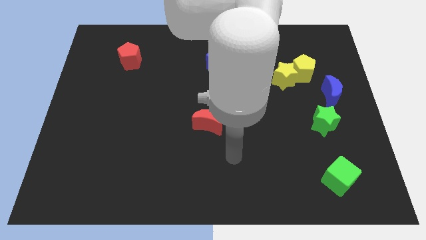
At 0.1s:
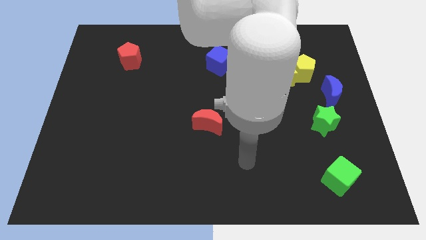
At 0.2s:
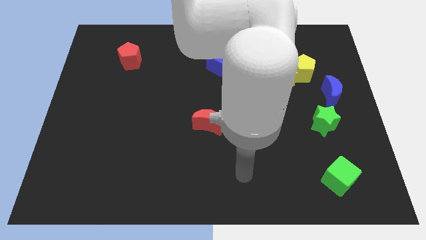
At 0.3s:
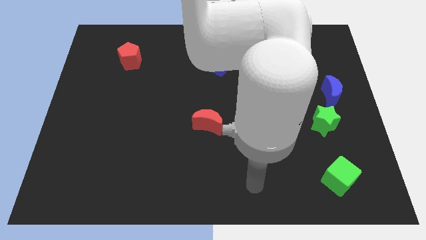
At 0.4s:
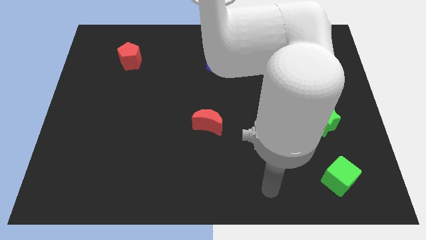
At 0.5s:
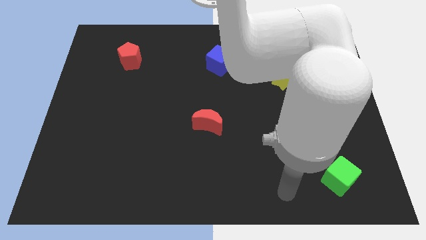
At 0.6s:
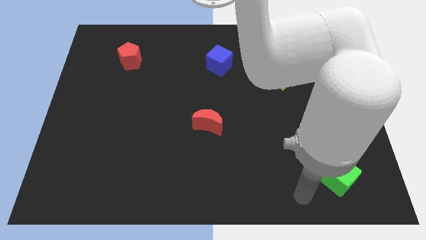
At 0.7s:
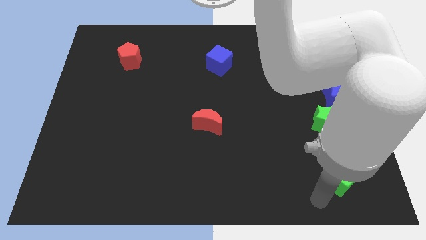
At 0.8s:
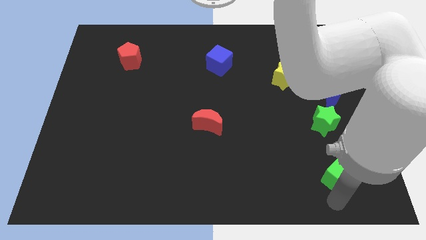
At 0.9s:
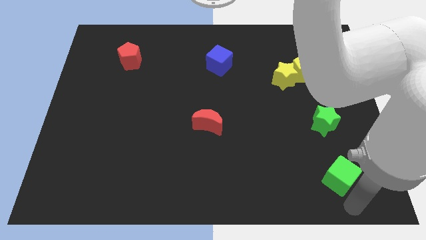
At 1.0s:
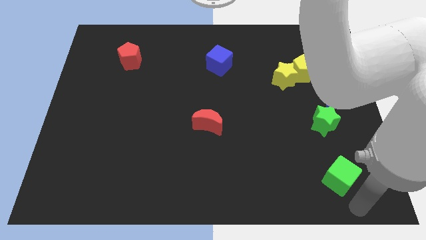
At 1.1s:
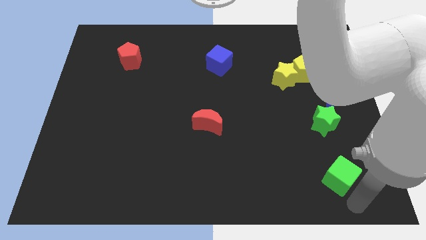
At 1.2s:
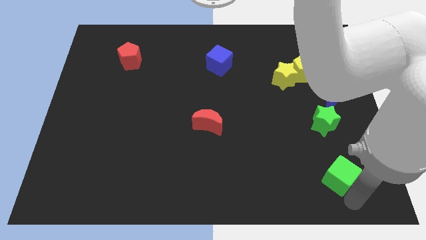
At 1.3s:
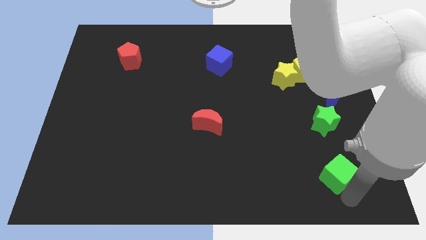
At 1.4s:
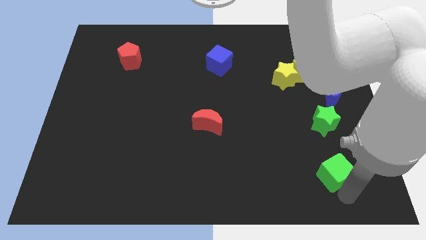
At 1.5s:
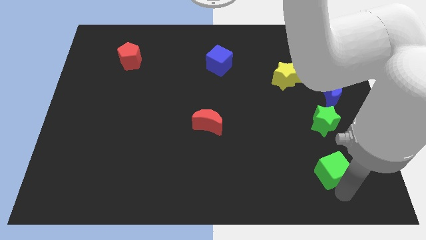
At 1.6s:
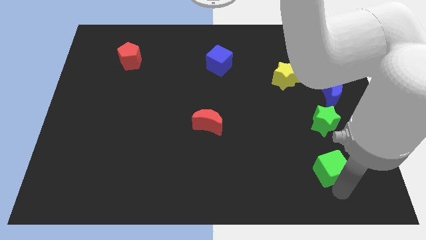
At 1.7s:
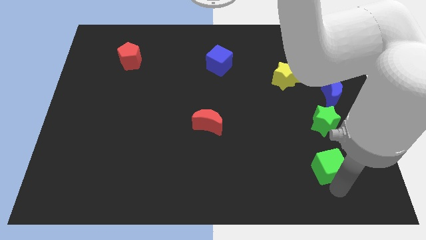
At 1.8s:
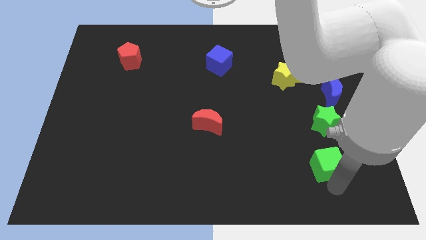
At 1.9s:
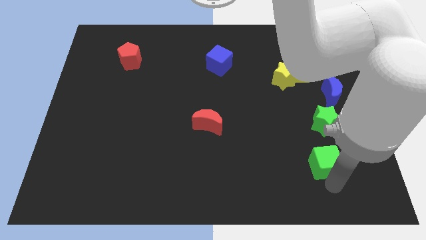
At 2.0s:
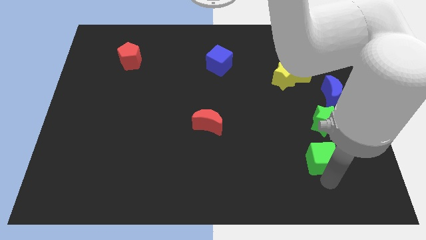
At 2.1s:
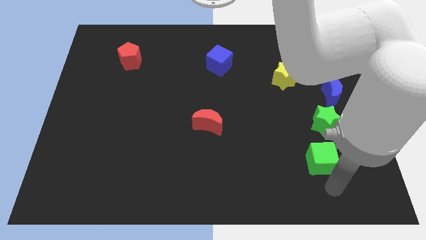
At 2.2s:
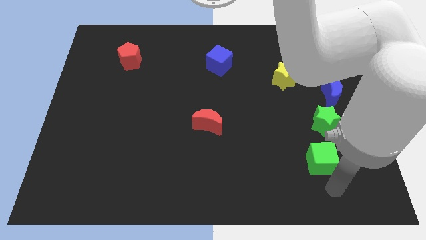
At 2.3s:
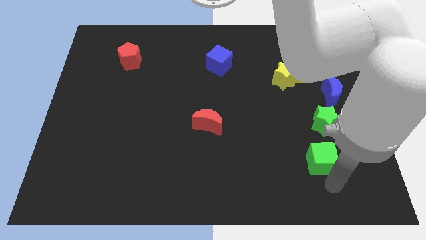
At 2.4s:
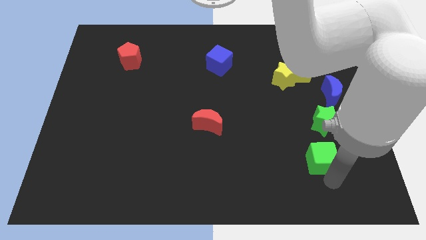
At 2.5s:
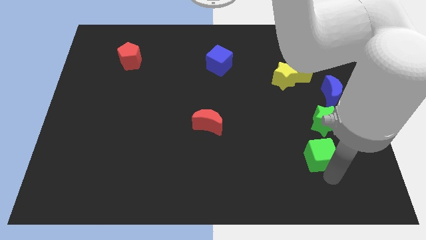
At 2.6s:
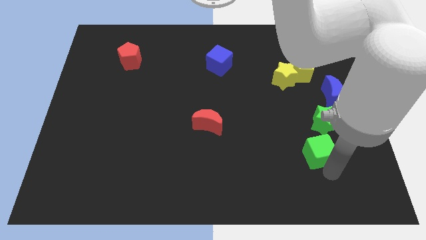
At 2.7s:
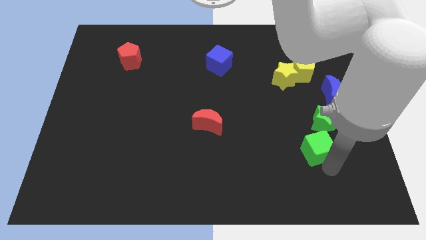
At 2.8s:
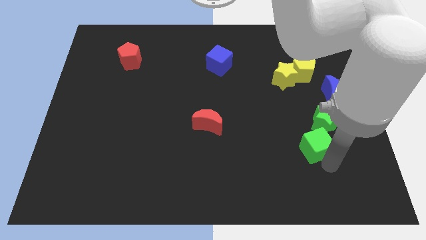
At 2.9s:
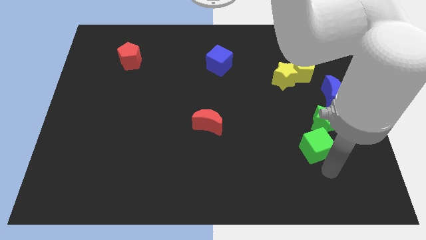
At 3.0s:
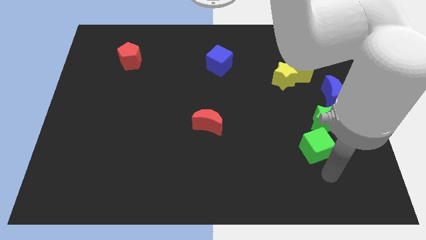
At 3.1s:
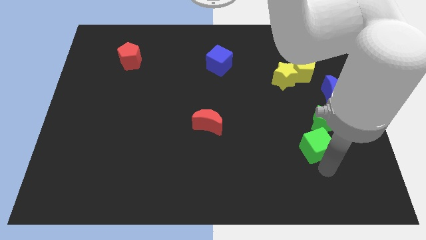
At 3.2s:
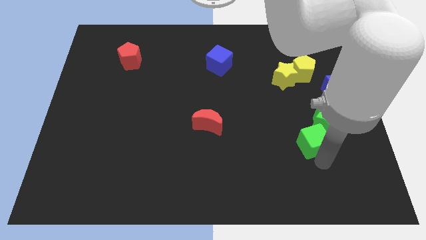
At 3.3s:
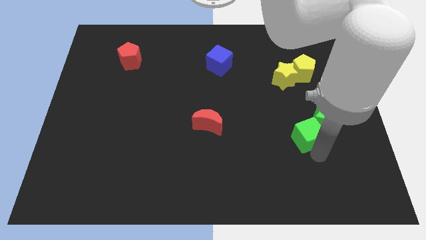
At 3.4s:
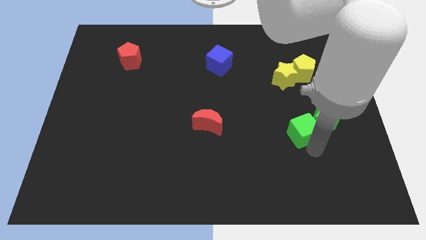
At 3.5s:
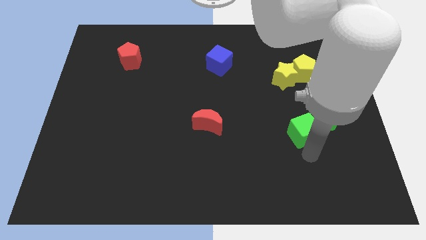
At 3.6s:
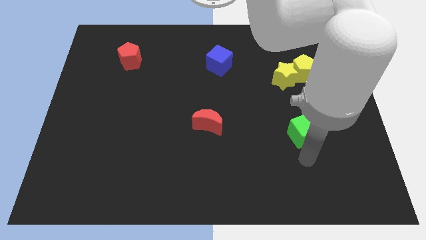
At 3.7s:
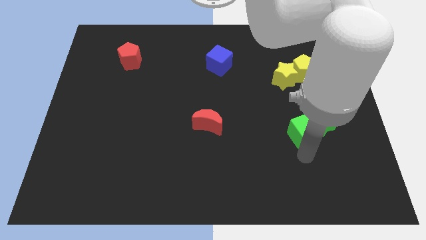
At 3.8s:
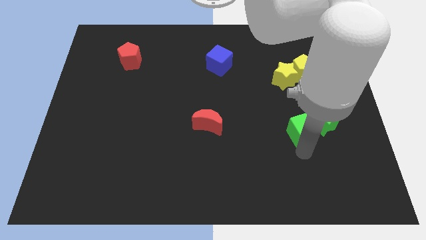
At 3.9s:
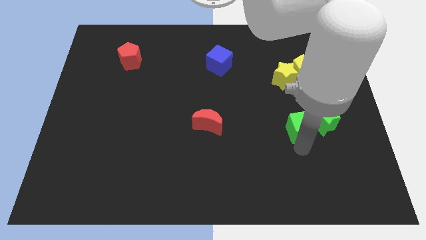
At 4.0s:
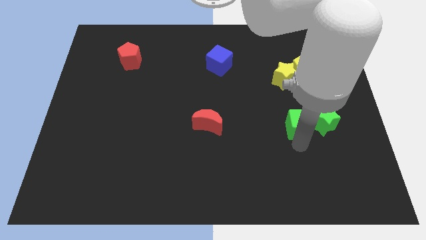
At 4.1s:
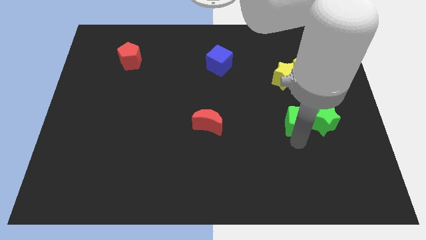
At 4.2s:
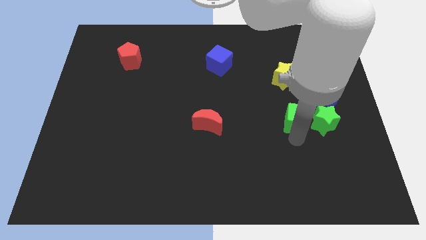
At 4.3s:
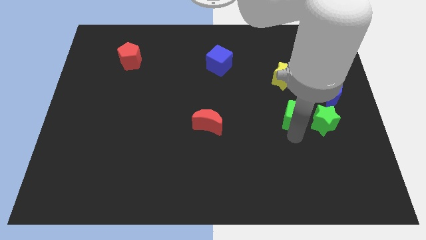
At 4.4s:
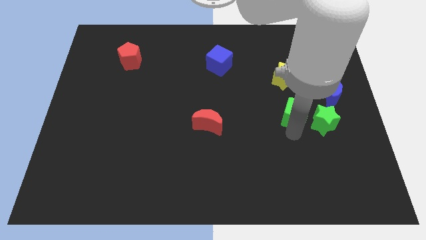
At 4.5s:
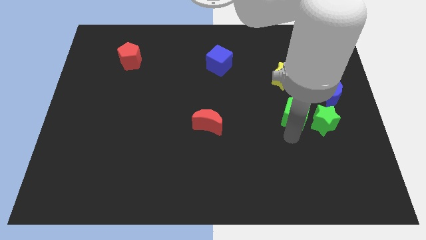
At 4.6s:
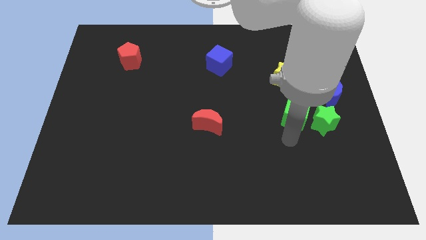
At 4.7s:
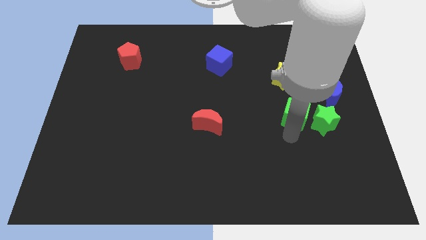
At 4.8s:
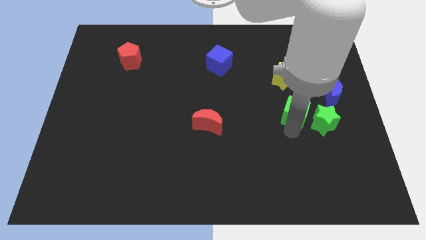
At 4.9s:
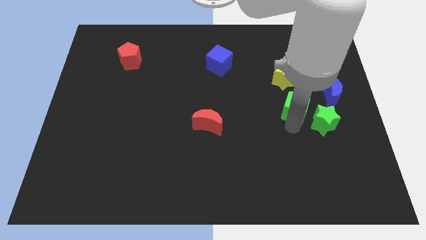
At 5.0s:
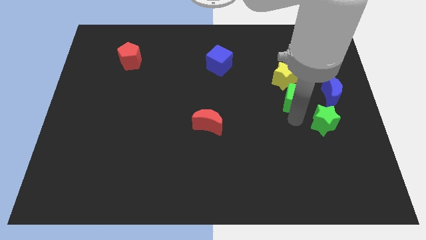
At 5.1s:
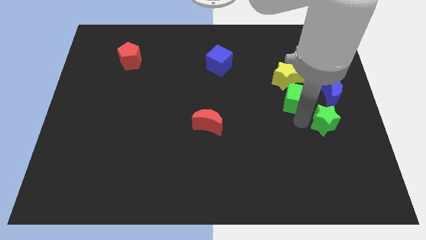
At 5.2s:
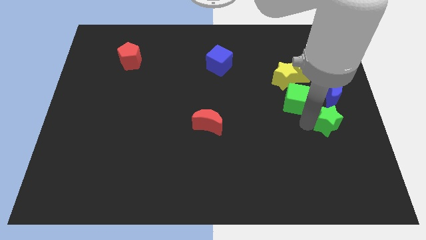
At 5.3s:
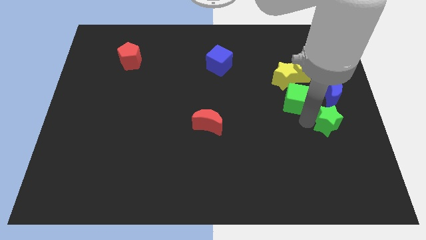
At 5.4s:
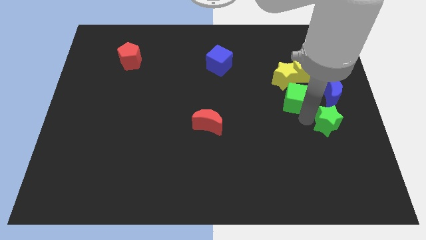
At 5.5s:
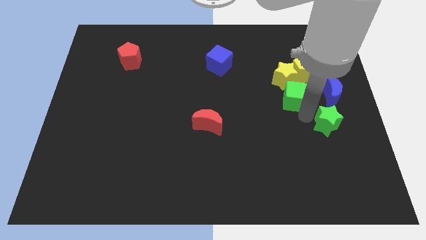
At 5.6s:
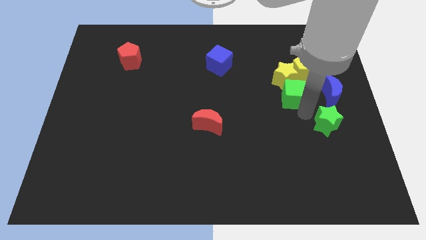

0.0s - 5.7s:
move the green cube towards the yellow star

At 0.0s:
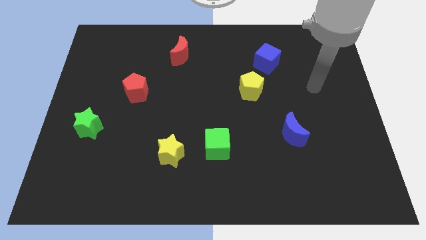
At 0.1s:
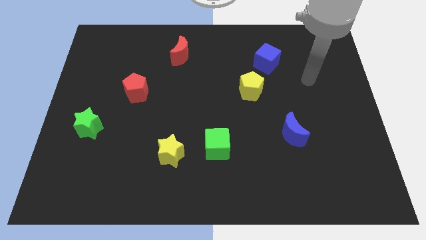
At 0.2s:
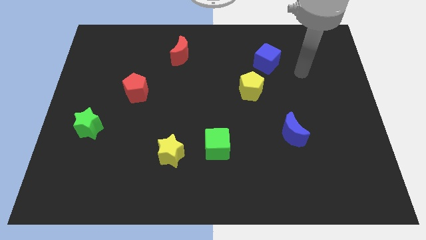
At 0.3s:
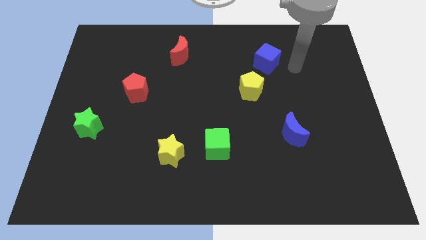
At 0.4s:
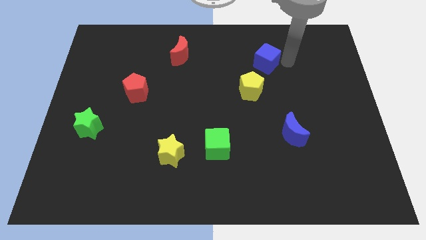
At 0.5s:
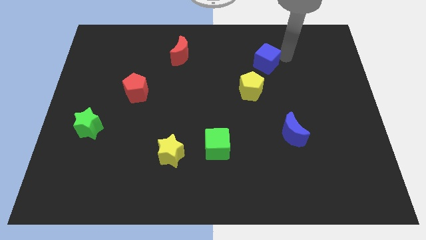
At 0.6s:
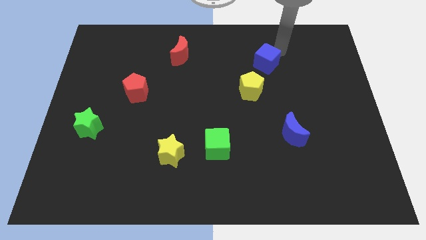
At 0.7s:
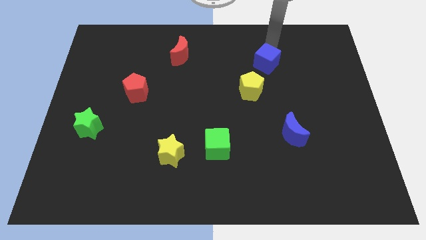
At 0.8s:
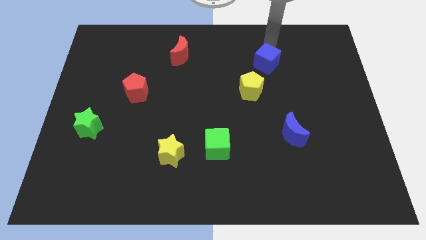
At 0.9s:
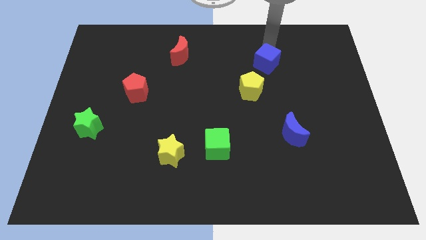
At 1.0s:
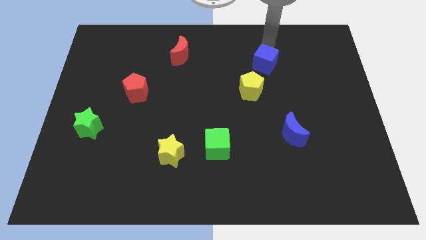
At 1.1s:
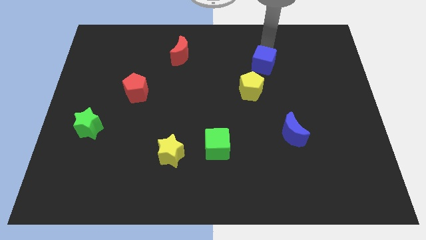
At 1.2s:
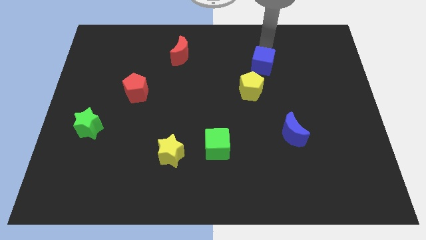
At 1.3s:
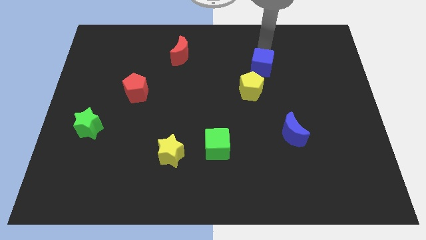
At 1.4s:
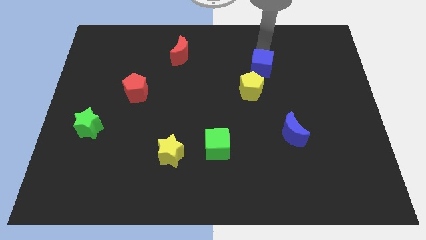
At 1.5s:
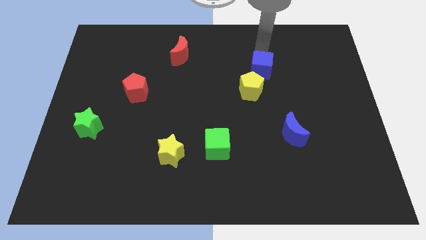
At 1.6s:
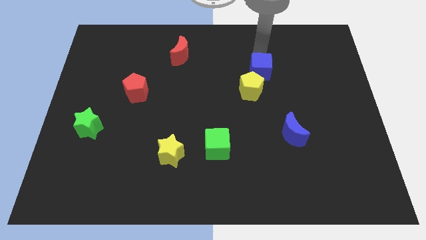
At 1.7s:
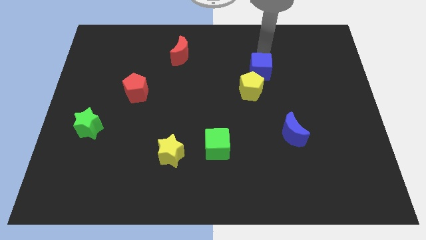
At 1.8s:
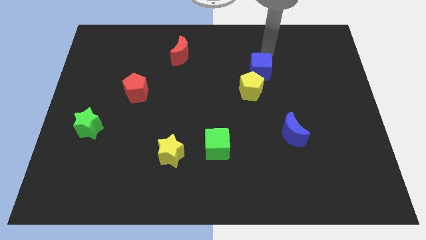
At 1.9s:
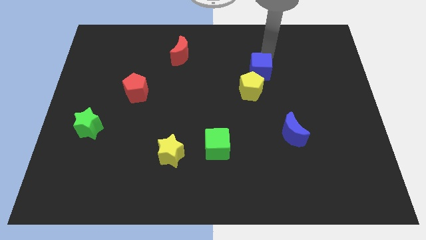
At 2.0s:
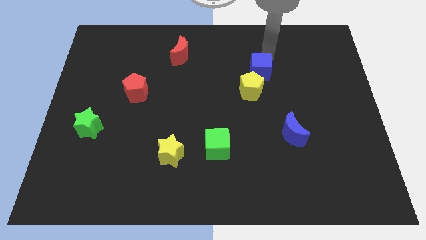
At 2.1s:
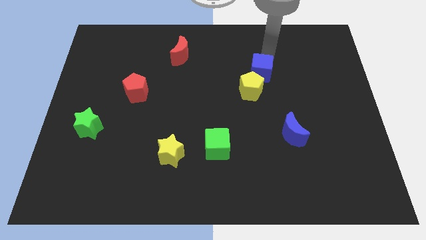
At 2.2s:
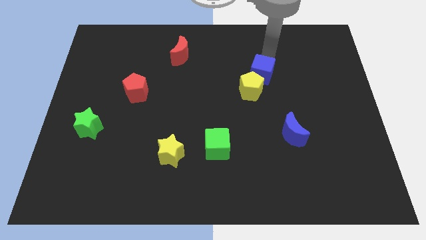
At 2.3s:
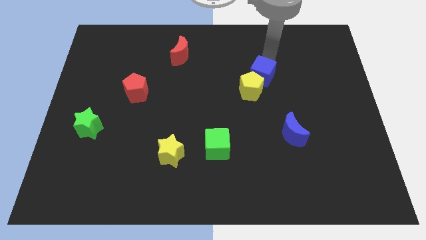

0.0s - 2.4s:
put the blue cube next to the yellow pentagon
